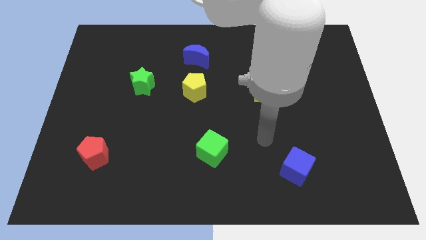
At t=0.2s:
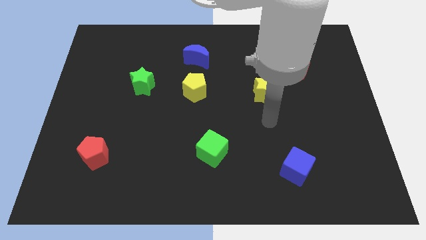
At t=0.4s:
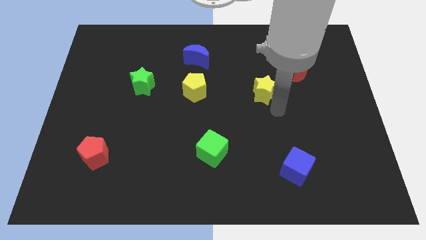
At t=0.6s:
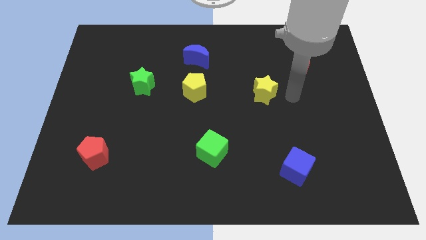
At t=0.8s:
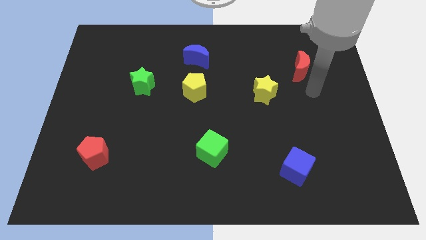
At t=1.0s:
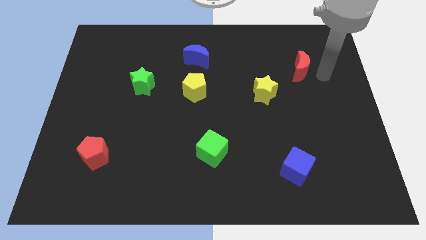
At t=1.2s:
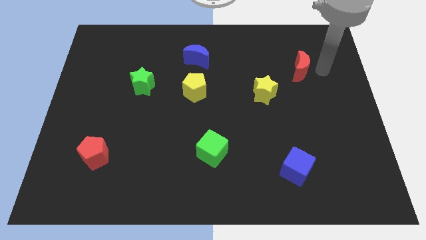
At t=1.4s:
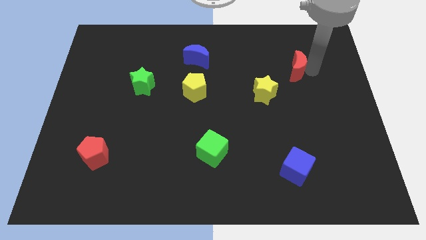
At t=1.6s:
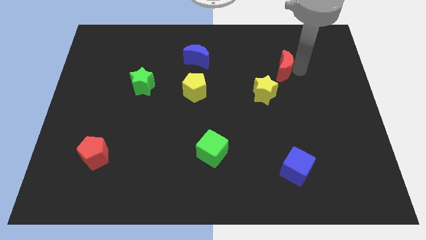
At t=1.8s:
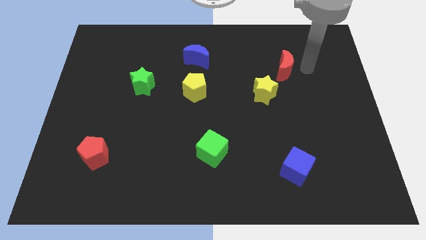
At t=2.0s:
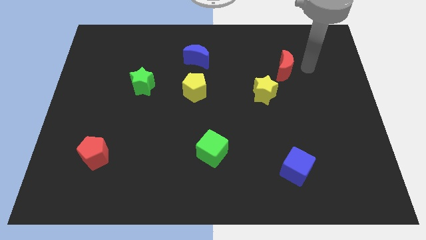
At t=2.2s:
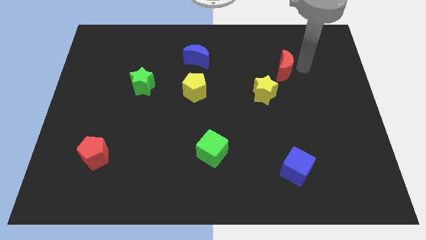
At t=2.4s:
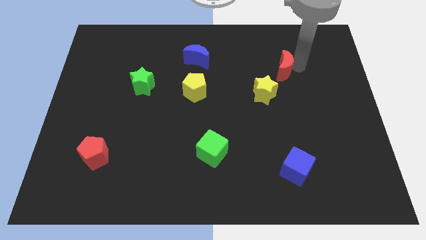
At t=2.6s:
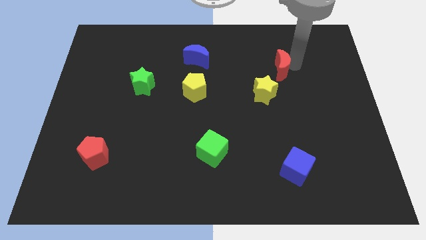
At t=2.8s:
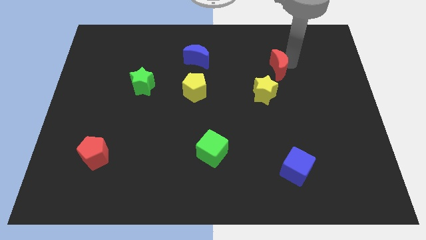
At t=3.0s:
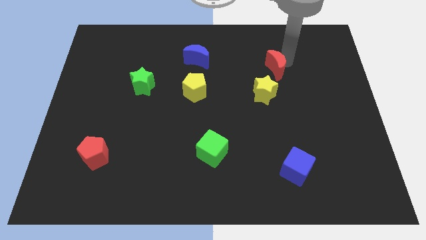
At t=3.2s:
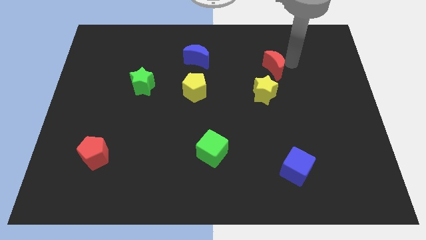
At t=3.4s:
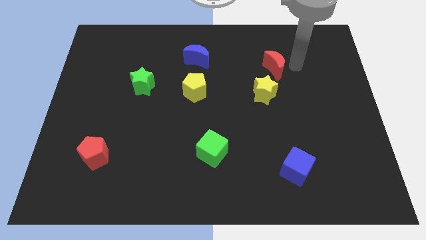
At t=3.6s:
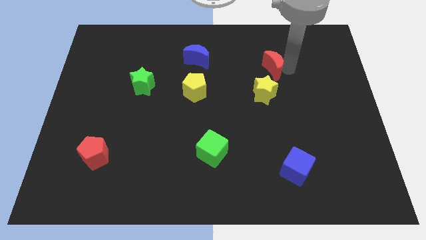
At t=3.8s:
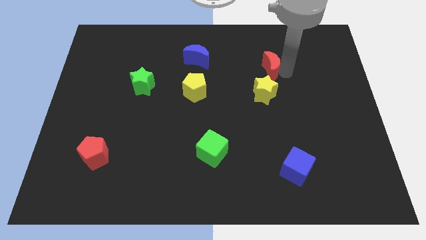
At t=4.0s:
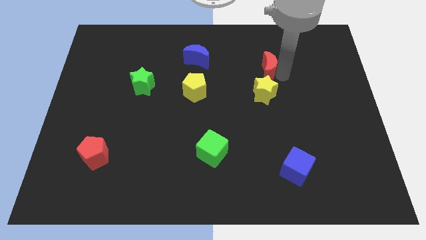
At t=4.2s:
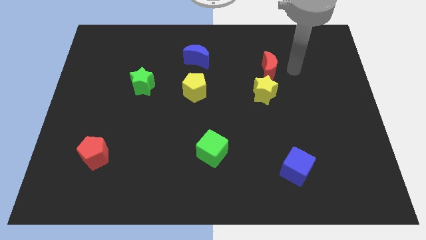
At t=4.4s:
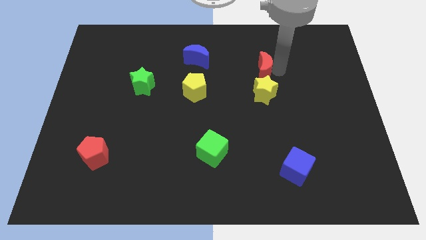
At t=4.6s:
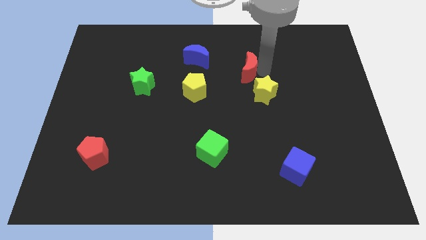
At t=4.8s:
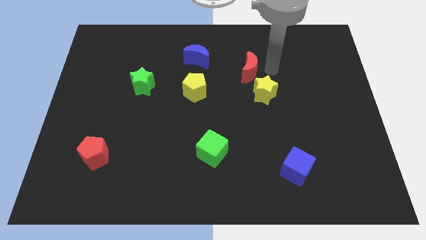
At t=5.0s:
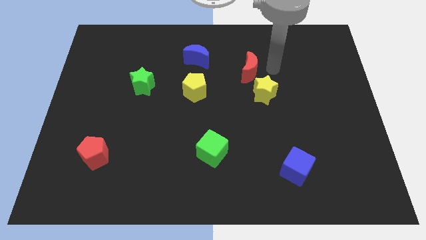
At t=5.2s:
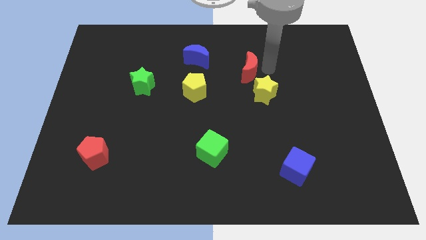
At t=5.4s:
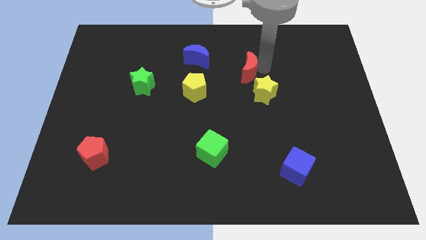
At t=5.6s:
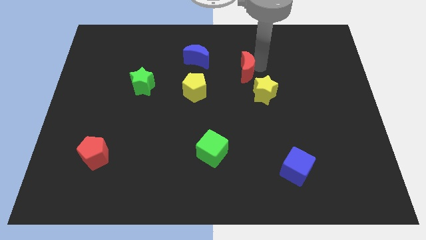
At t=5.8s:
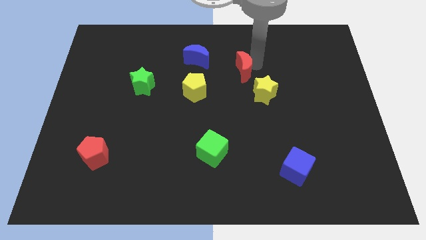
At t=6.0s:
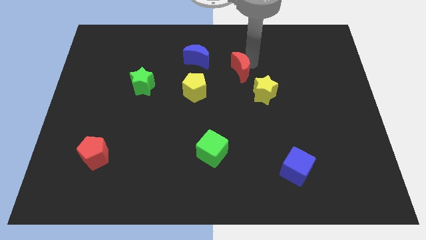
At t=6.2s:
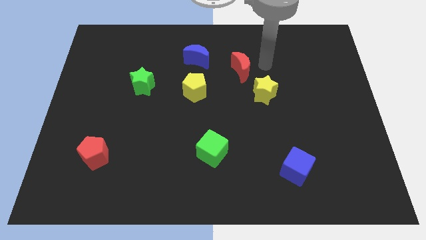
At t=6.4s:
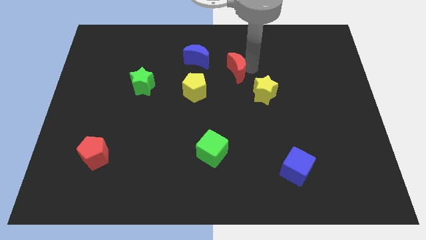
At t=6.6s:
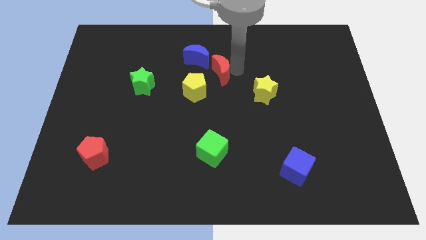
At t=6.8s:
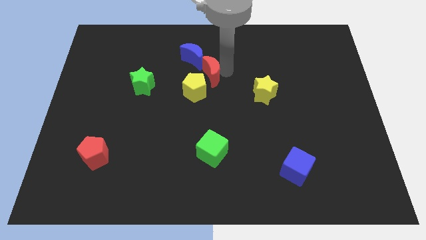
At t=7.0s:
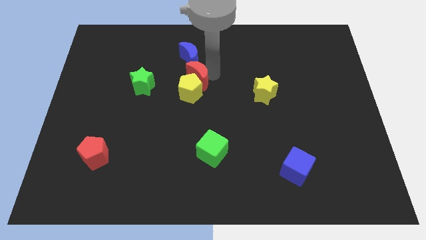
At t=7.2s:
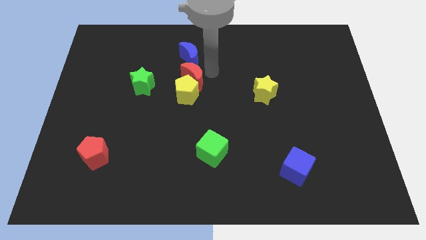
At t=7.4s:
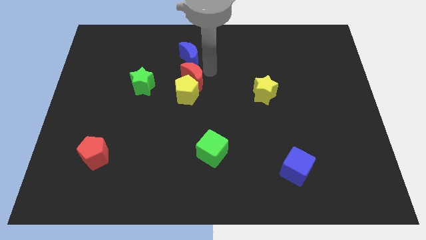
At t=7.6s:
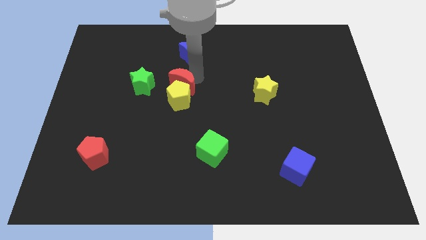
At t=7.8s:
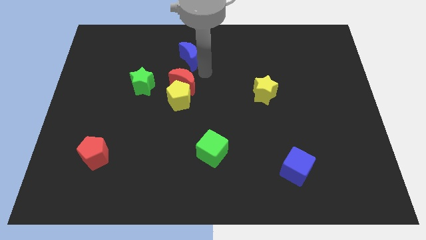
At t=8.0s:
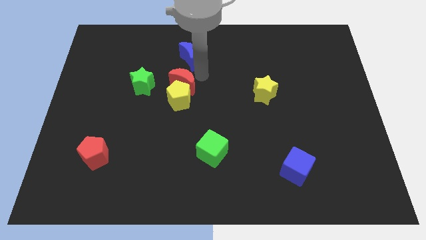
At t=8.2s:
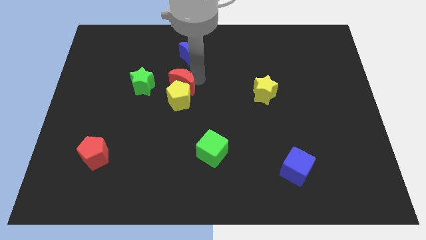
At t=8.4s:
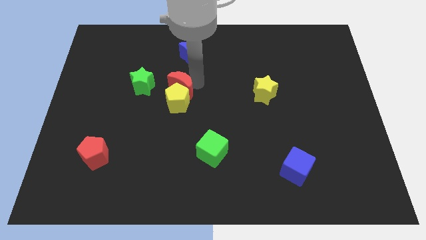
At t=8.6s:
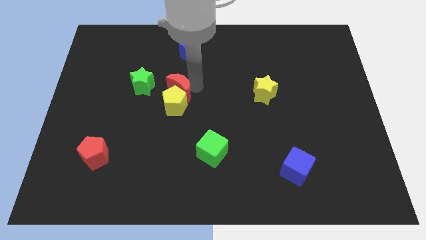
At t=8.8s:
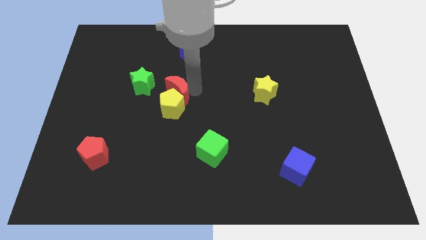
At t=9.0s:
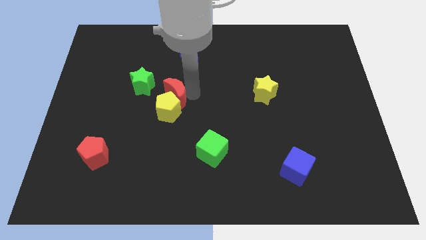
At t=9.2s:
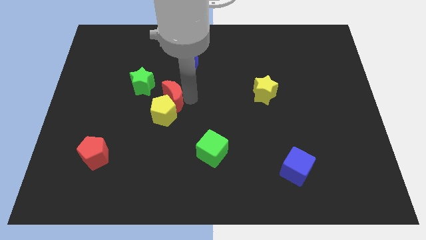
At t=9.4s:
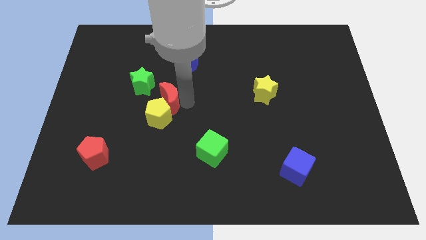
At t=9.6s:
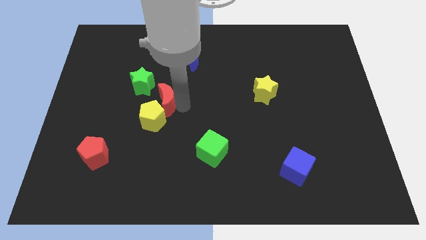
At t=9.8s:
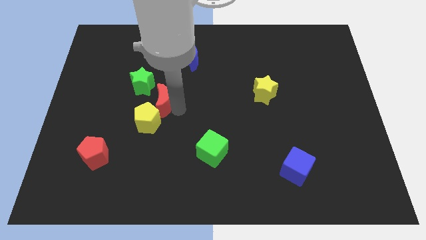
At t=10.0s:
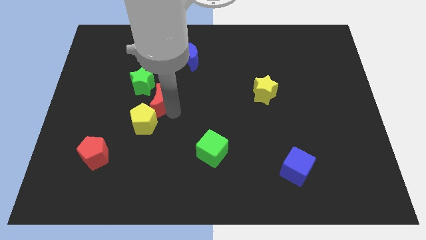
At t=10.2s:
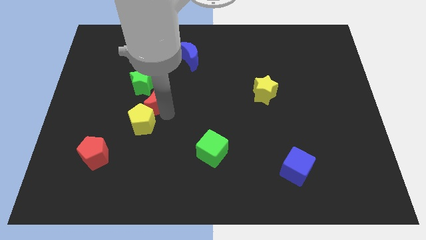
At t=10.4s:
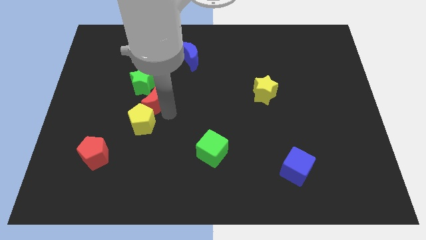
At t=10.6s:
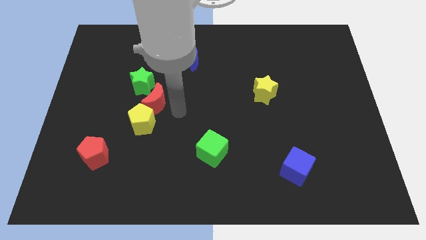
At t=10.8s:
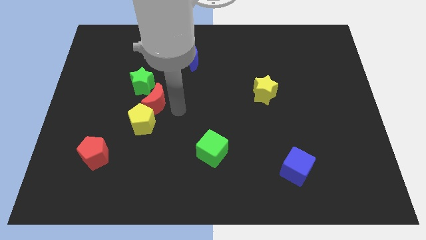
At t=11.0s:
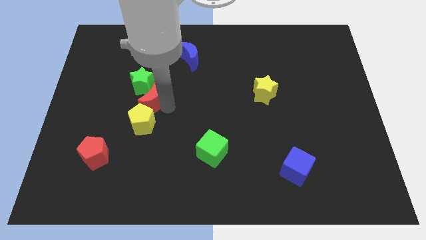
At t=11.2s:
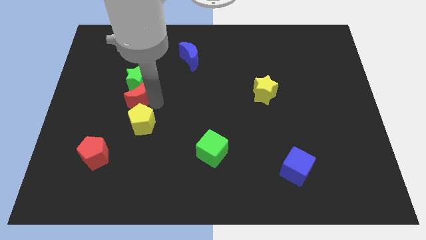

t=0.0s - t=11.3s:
move the red moon to the bottom left of the green star

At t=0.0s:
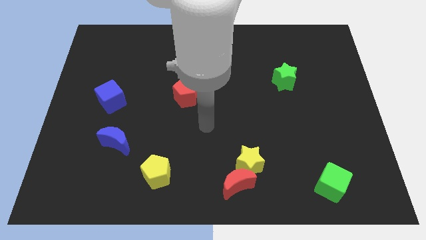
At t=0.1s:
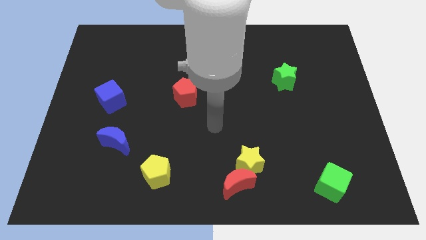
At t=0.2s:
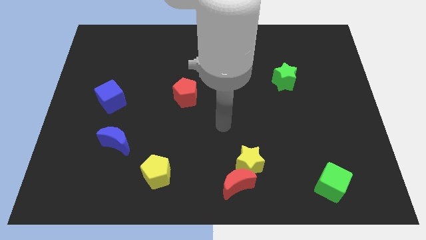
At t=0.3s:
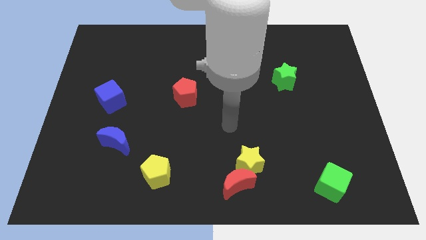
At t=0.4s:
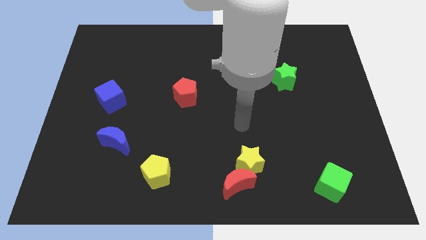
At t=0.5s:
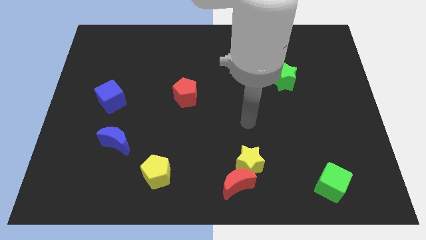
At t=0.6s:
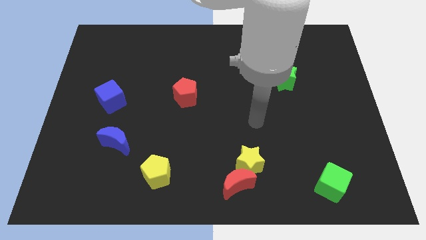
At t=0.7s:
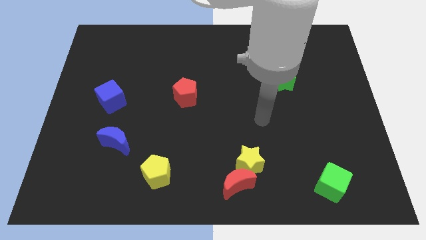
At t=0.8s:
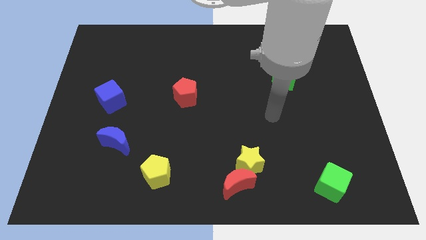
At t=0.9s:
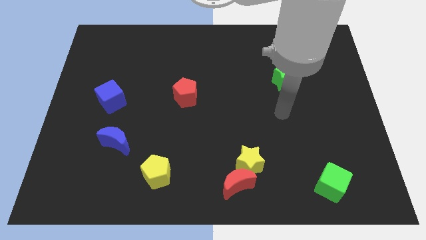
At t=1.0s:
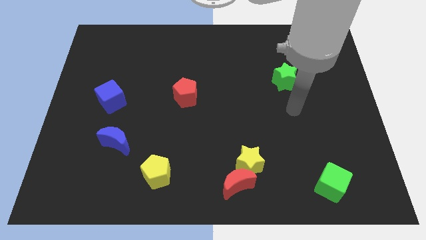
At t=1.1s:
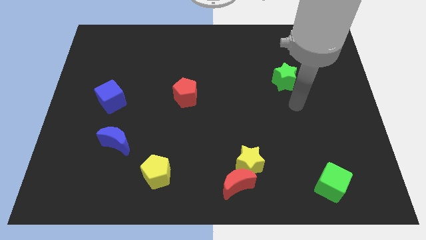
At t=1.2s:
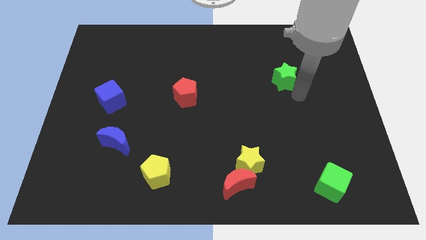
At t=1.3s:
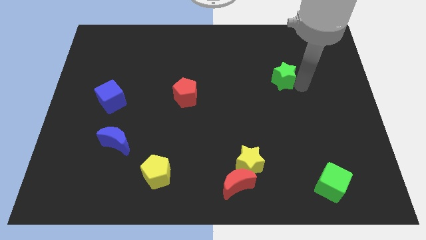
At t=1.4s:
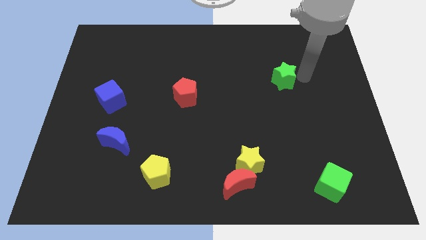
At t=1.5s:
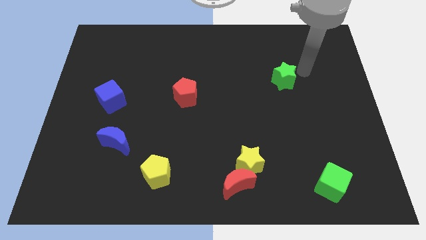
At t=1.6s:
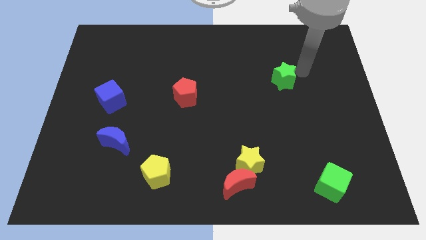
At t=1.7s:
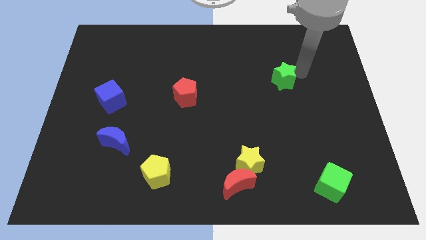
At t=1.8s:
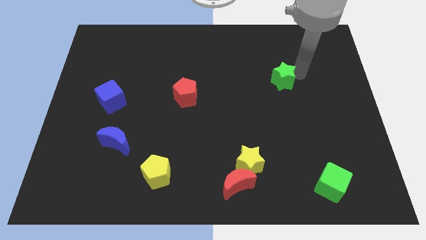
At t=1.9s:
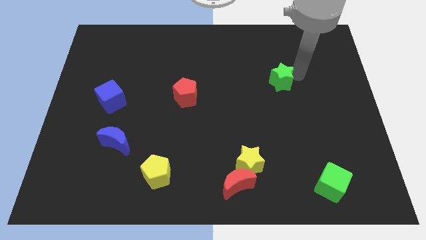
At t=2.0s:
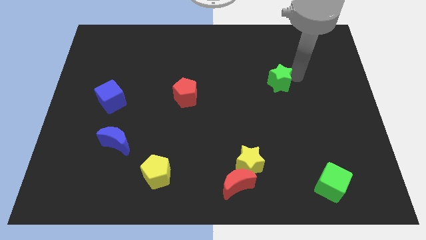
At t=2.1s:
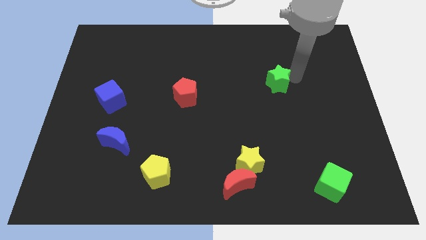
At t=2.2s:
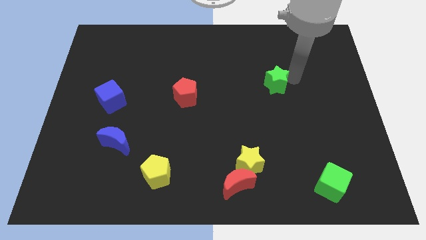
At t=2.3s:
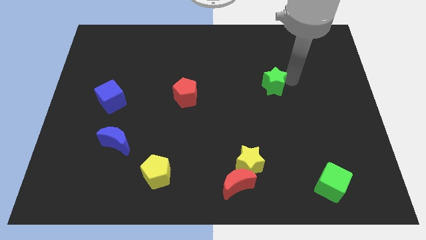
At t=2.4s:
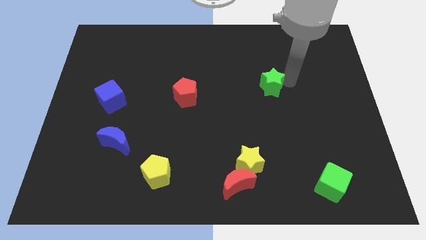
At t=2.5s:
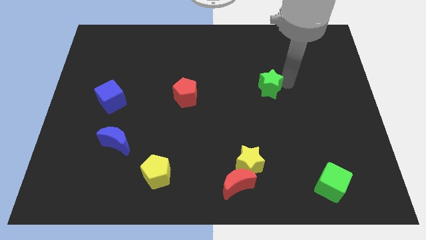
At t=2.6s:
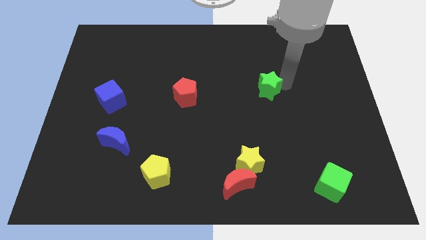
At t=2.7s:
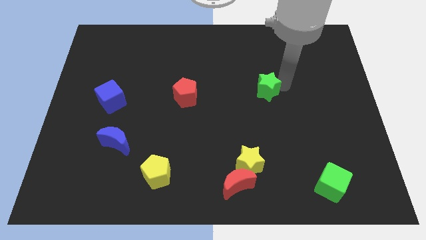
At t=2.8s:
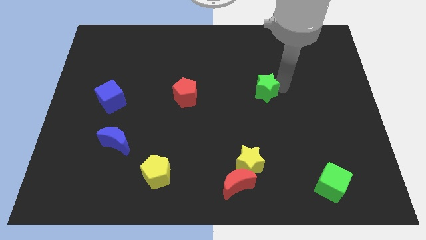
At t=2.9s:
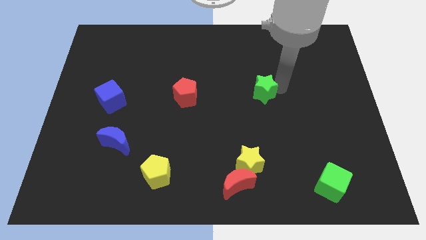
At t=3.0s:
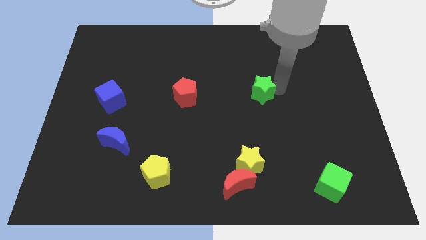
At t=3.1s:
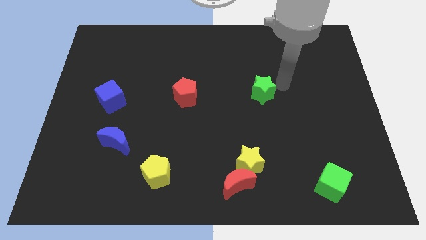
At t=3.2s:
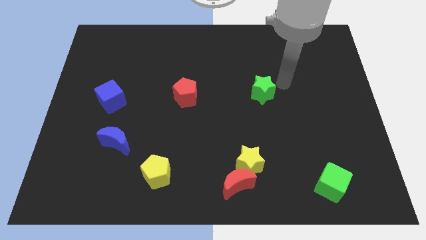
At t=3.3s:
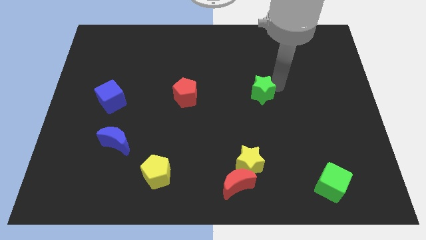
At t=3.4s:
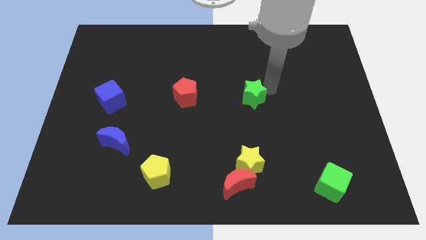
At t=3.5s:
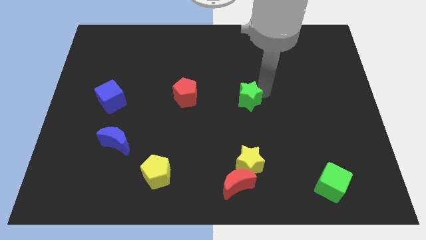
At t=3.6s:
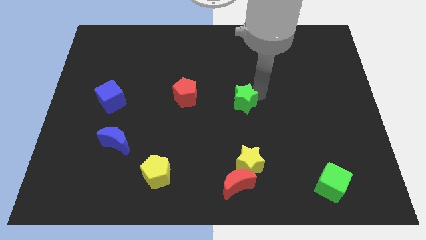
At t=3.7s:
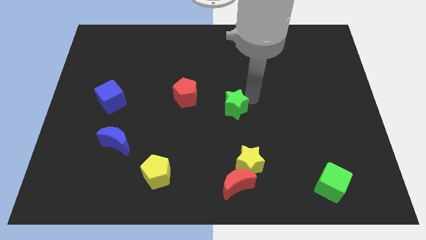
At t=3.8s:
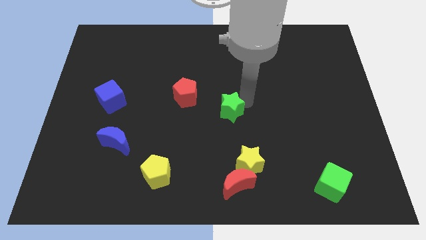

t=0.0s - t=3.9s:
push the green star diagonally down and to the right of the red pentagon
